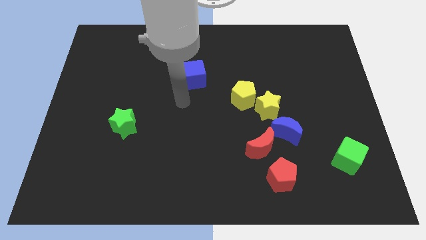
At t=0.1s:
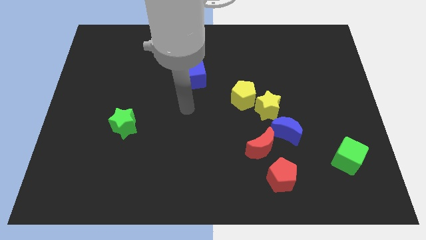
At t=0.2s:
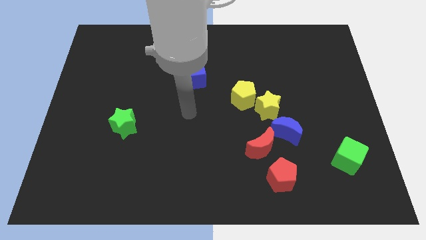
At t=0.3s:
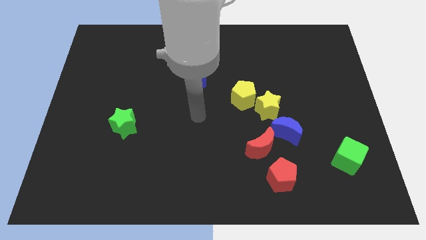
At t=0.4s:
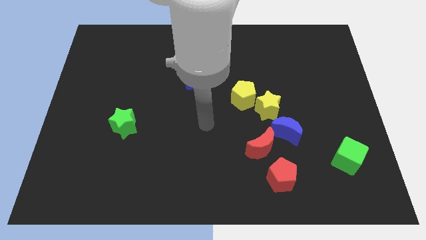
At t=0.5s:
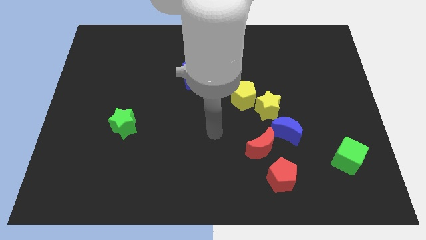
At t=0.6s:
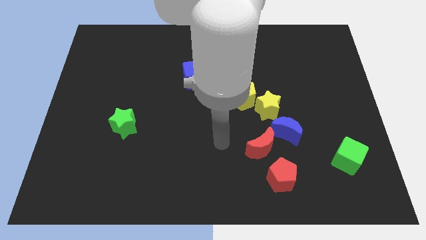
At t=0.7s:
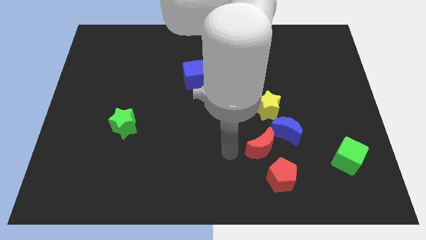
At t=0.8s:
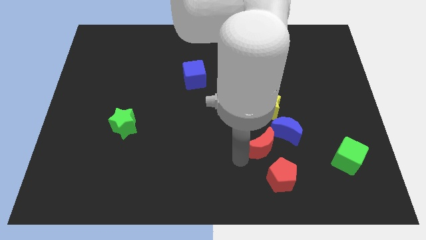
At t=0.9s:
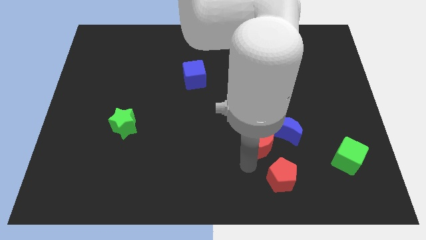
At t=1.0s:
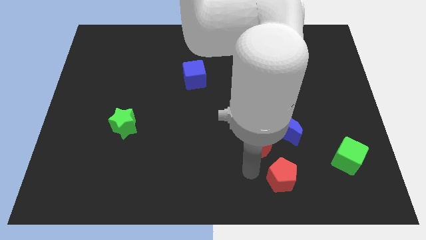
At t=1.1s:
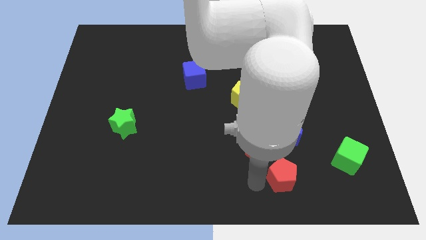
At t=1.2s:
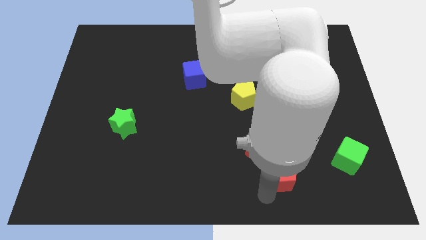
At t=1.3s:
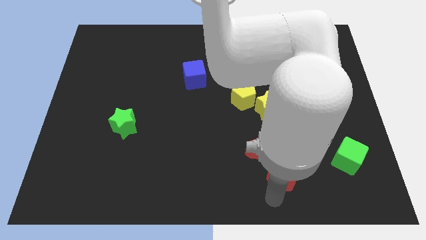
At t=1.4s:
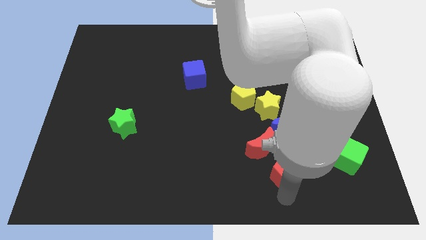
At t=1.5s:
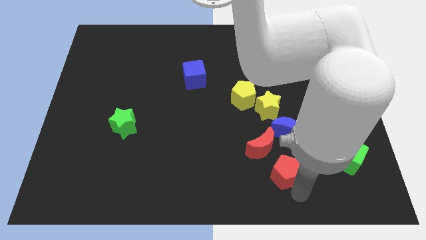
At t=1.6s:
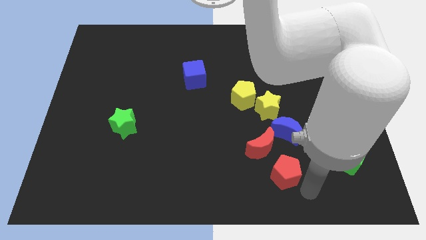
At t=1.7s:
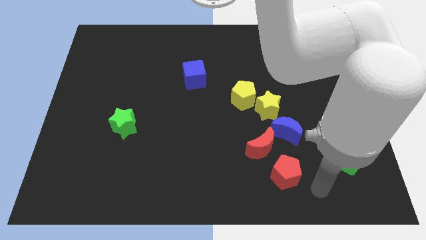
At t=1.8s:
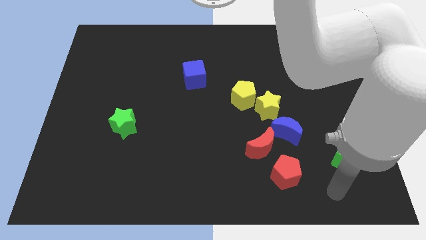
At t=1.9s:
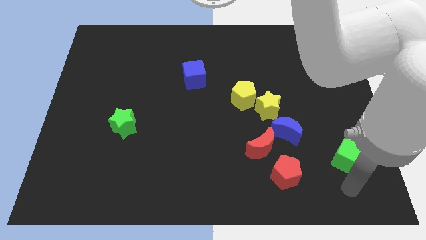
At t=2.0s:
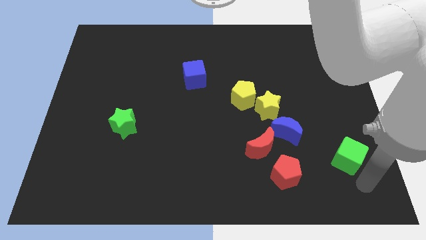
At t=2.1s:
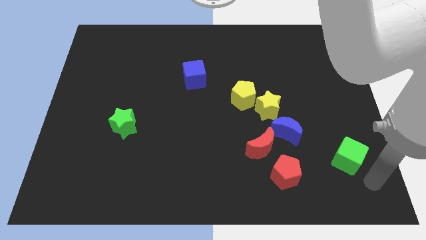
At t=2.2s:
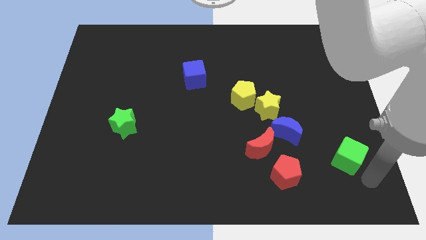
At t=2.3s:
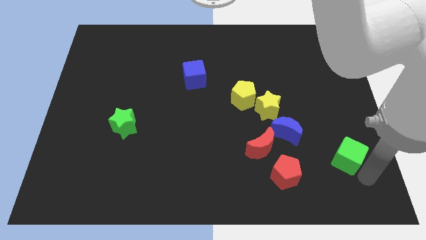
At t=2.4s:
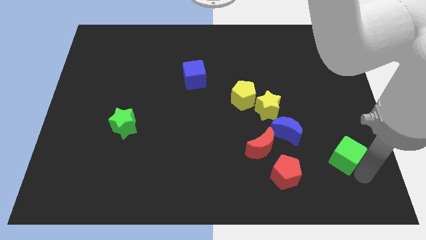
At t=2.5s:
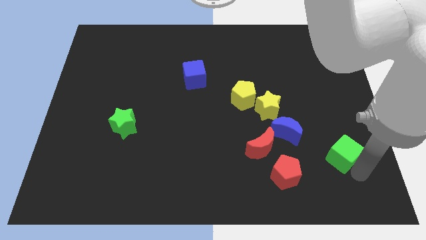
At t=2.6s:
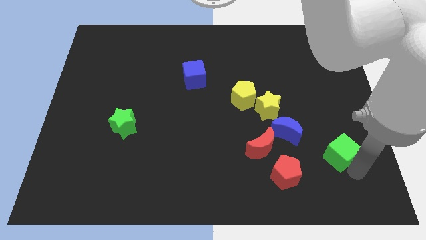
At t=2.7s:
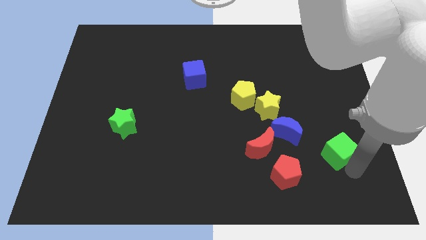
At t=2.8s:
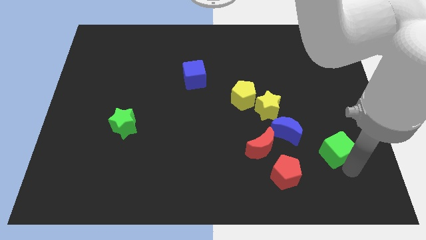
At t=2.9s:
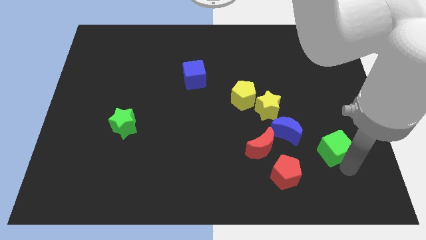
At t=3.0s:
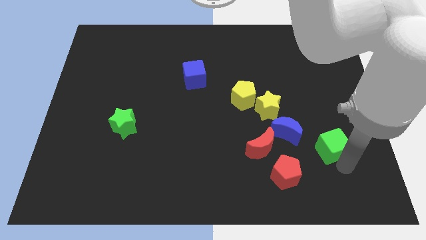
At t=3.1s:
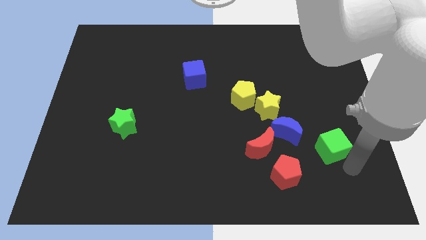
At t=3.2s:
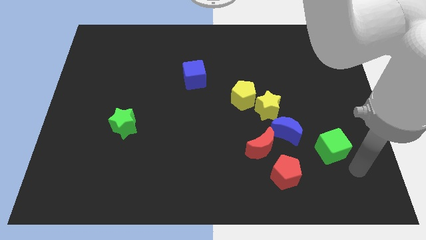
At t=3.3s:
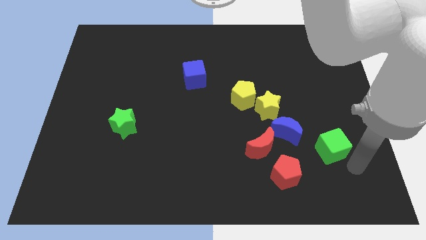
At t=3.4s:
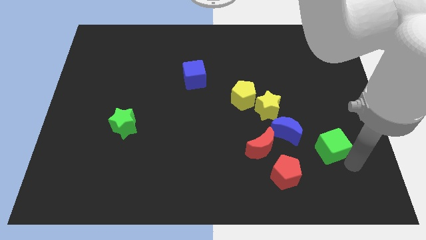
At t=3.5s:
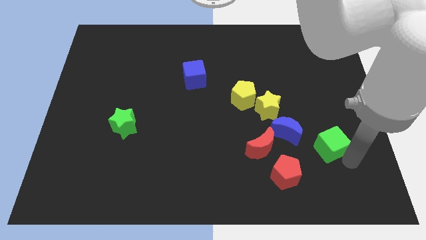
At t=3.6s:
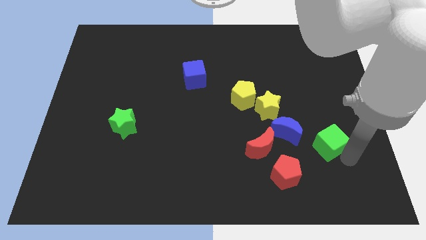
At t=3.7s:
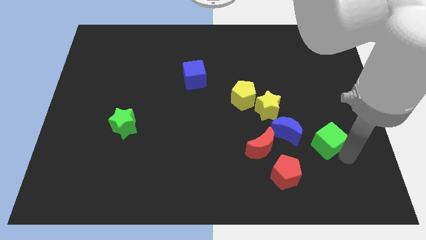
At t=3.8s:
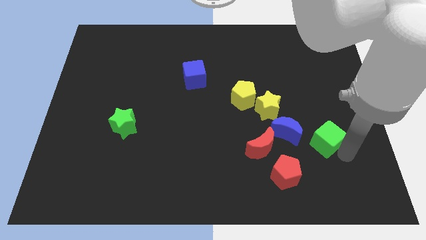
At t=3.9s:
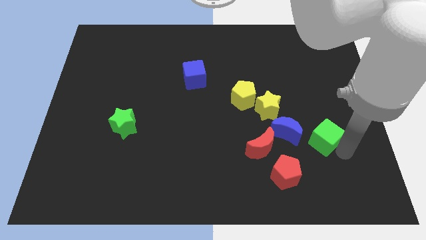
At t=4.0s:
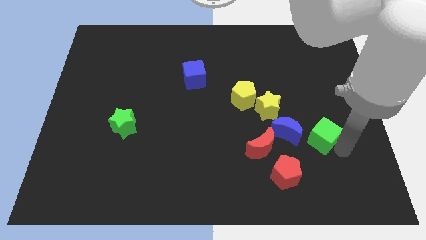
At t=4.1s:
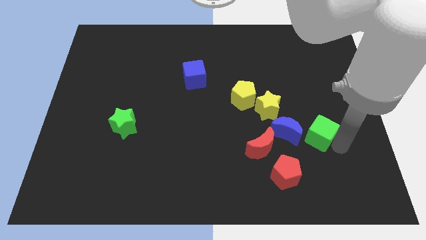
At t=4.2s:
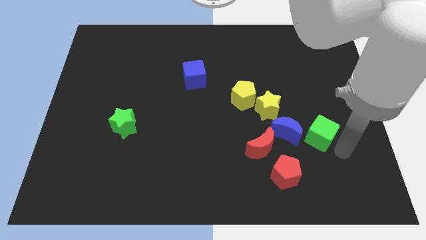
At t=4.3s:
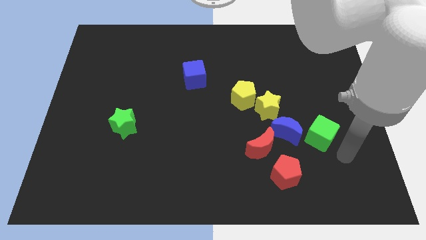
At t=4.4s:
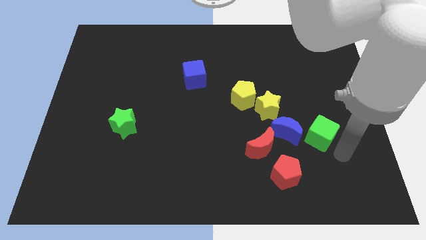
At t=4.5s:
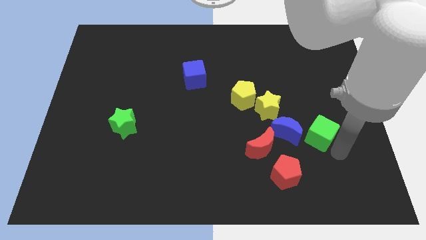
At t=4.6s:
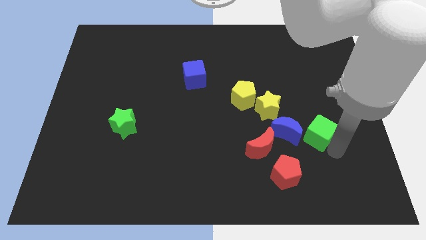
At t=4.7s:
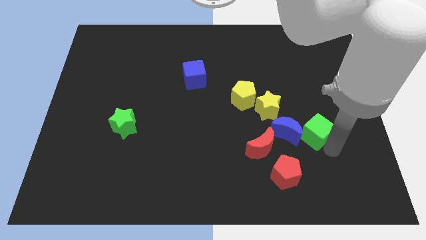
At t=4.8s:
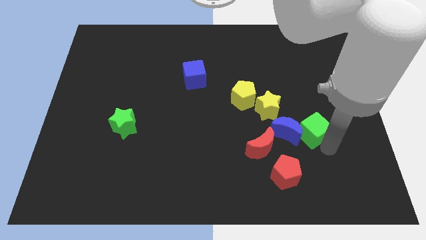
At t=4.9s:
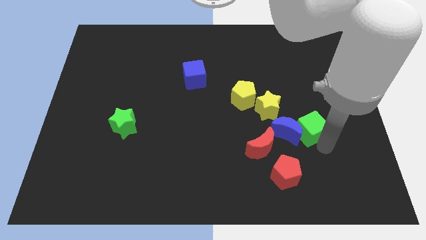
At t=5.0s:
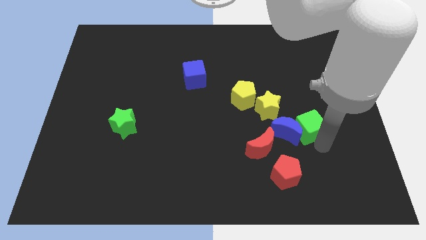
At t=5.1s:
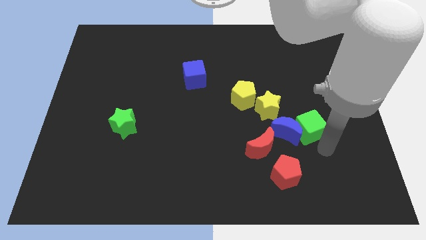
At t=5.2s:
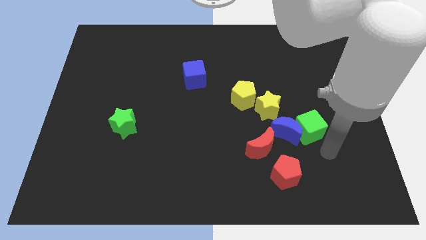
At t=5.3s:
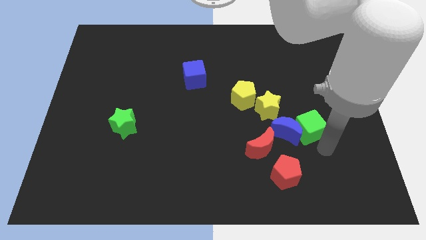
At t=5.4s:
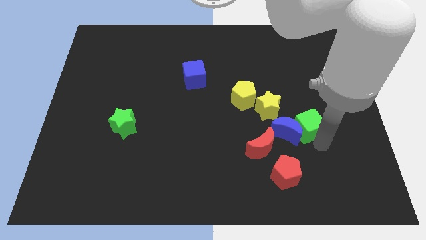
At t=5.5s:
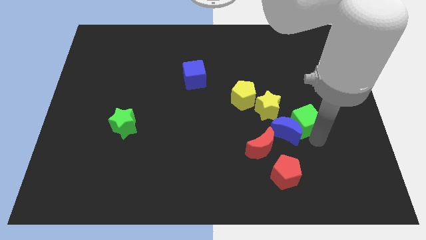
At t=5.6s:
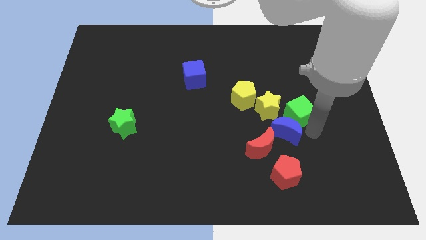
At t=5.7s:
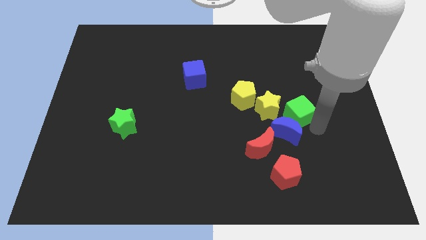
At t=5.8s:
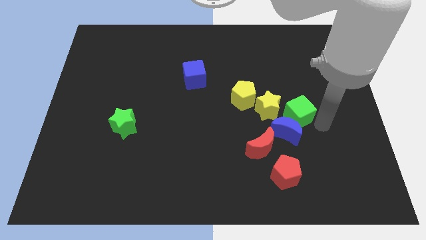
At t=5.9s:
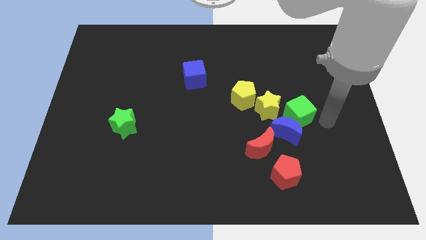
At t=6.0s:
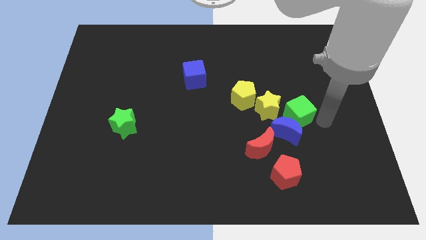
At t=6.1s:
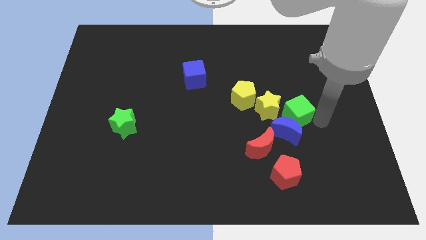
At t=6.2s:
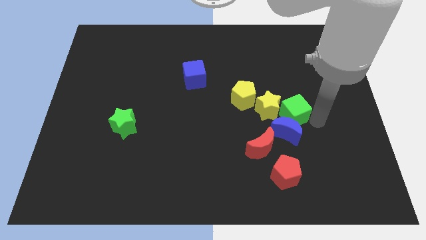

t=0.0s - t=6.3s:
move the green cube close to the yellow star

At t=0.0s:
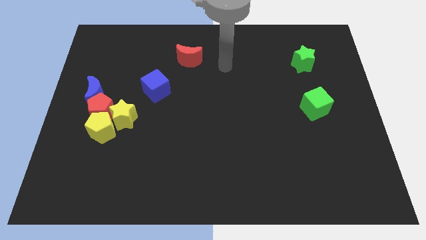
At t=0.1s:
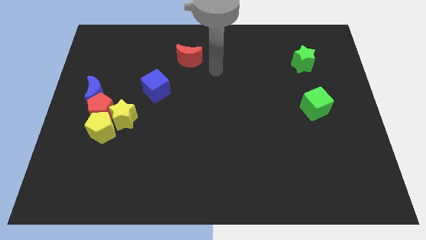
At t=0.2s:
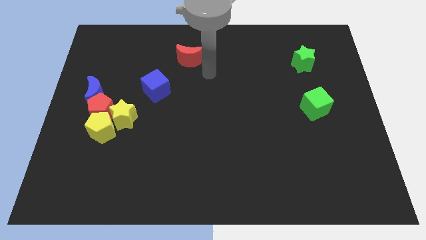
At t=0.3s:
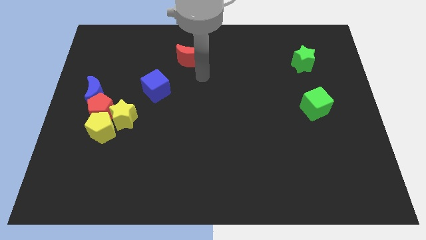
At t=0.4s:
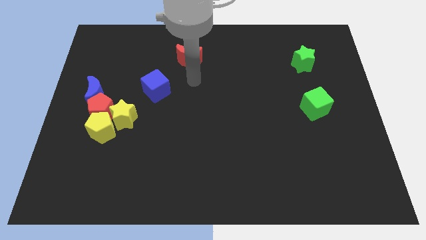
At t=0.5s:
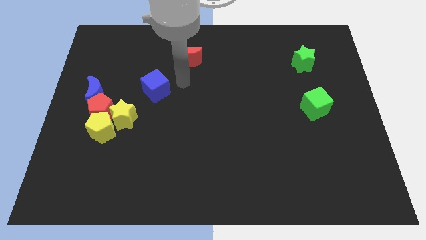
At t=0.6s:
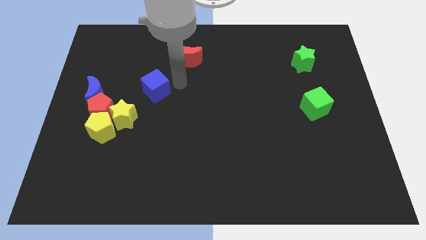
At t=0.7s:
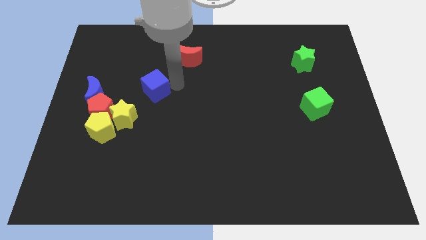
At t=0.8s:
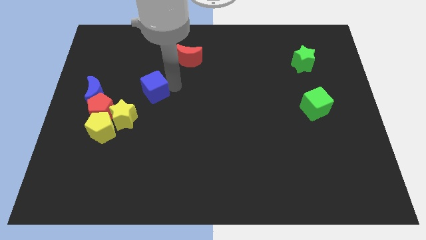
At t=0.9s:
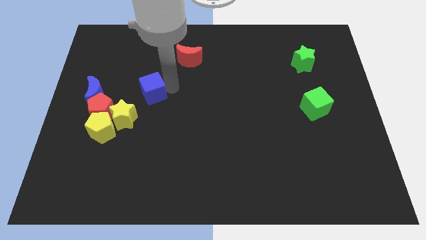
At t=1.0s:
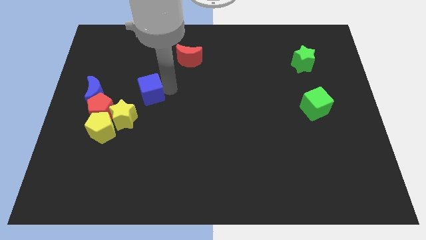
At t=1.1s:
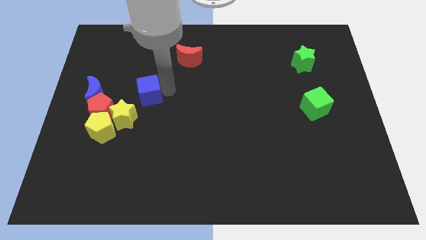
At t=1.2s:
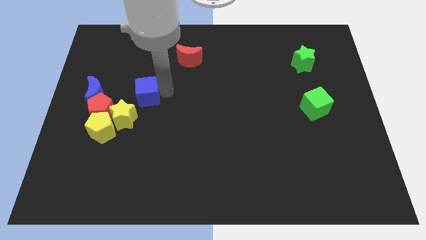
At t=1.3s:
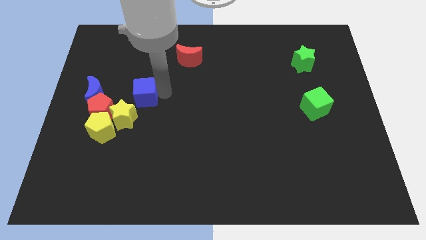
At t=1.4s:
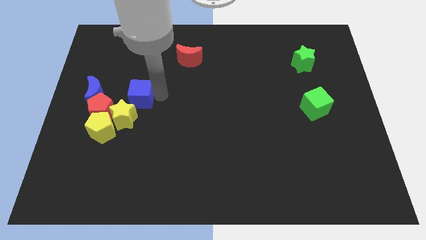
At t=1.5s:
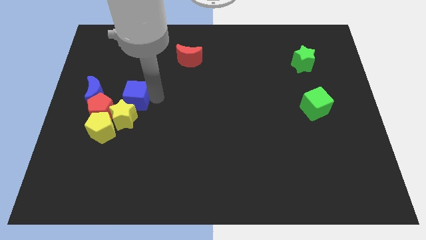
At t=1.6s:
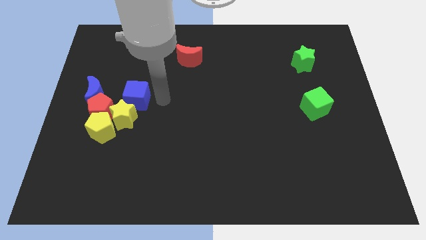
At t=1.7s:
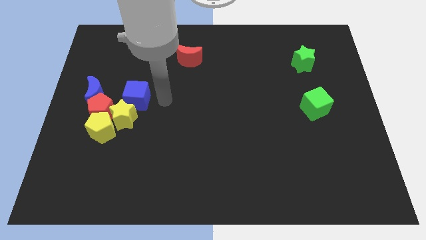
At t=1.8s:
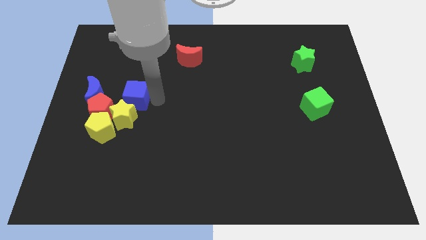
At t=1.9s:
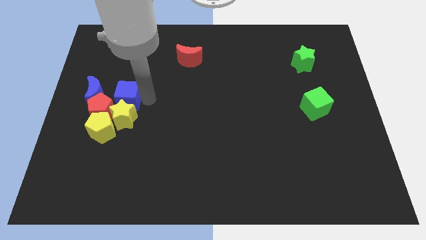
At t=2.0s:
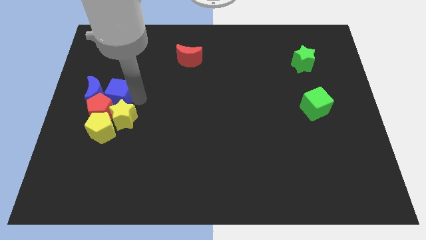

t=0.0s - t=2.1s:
slide the blue cube to the blue moon
